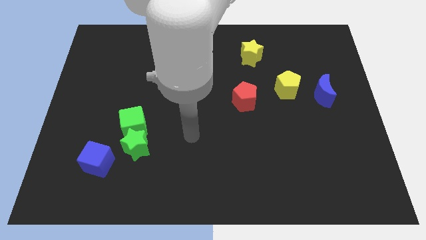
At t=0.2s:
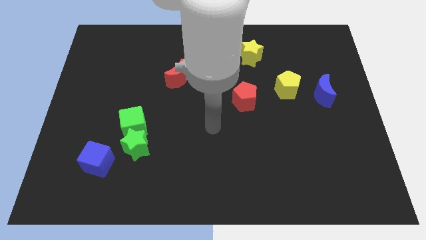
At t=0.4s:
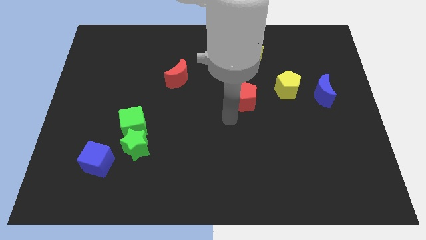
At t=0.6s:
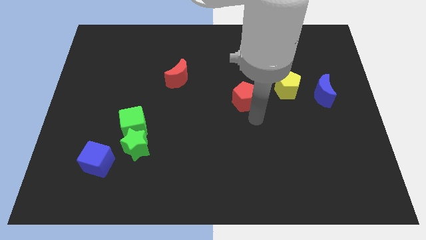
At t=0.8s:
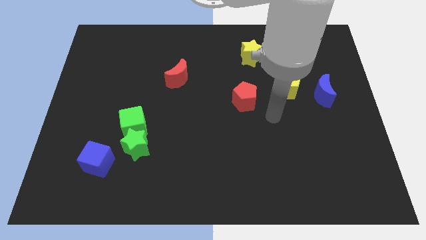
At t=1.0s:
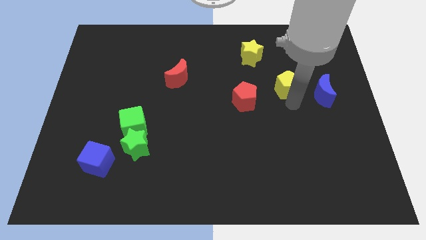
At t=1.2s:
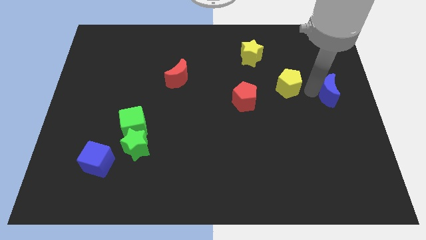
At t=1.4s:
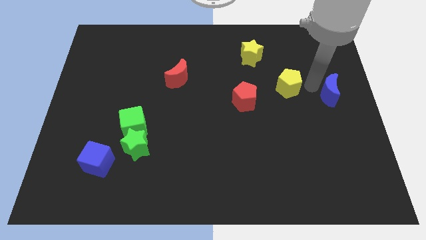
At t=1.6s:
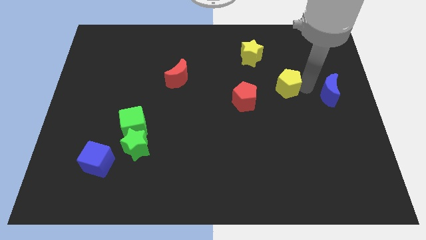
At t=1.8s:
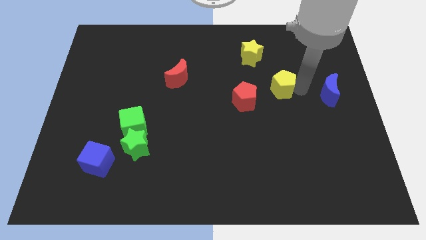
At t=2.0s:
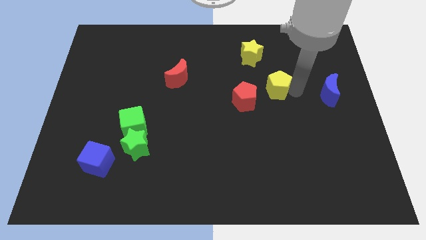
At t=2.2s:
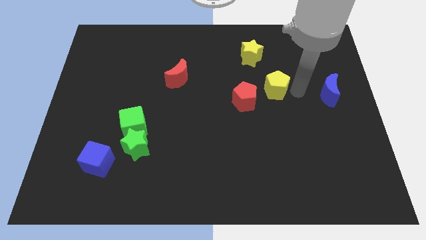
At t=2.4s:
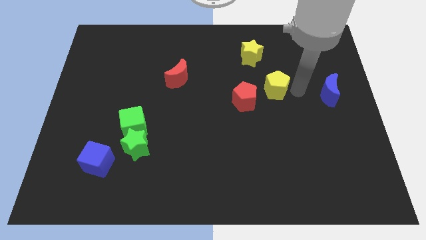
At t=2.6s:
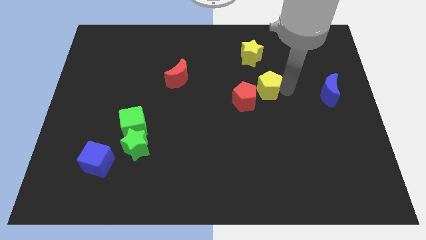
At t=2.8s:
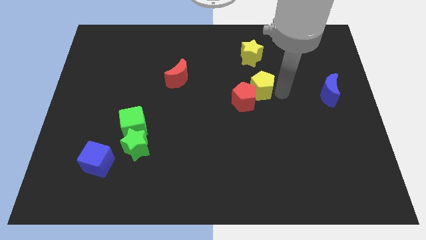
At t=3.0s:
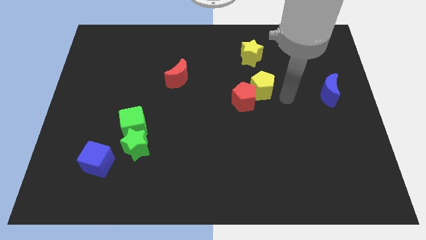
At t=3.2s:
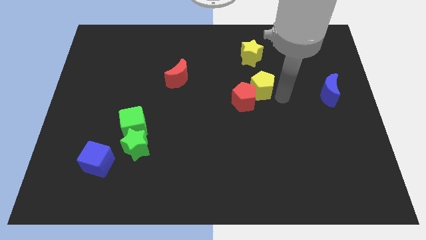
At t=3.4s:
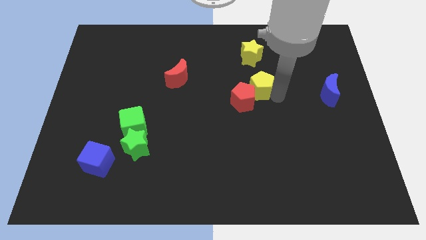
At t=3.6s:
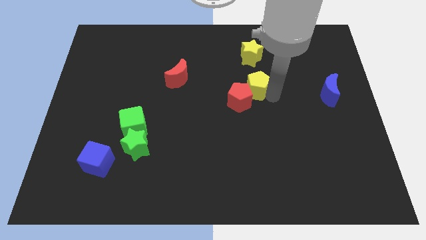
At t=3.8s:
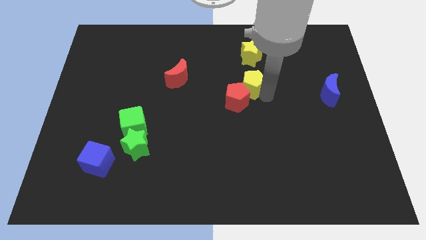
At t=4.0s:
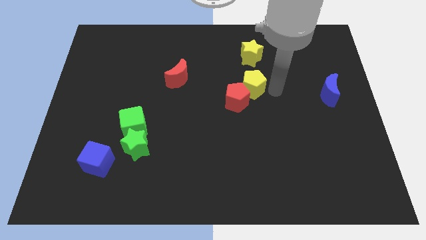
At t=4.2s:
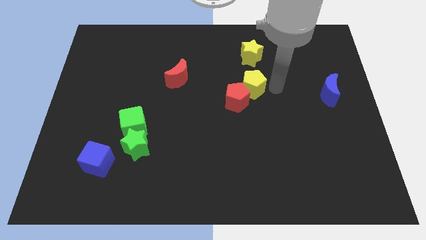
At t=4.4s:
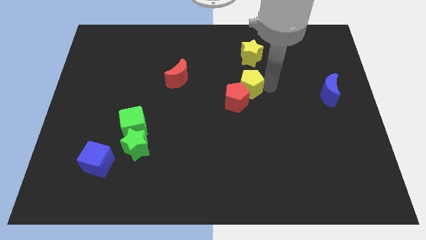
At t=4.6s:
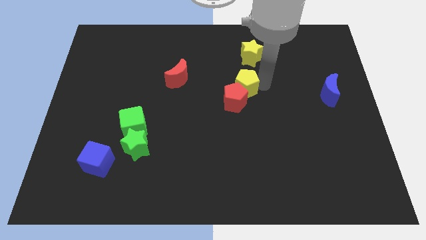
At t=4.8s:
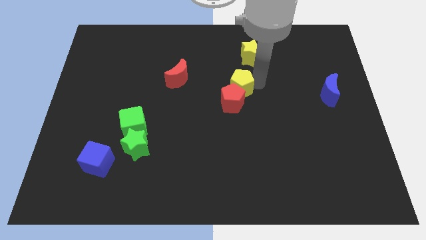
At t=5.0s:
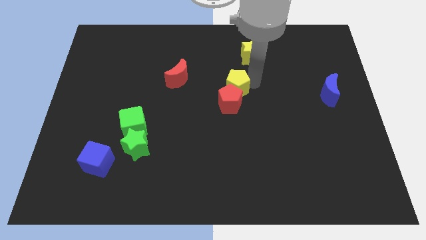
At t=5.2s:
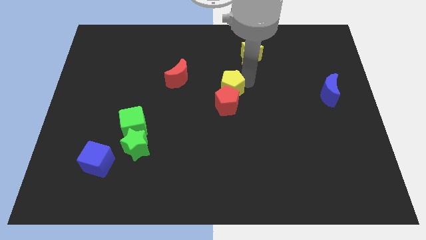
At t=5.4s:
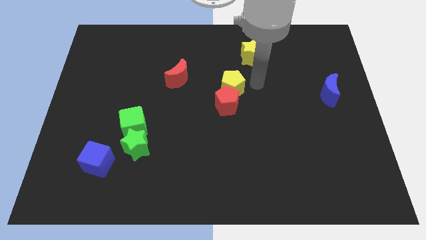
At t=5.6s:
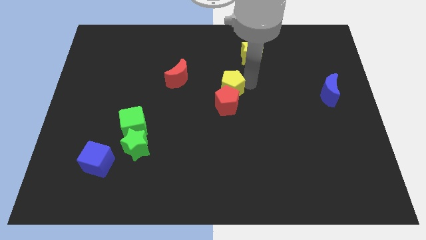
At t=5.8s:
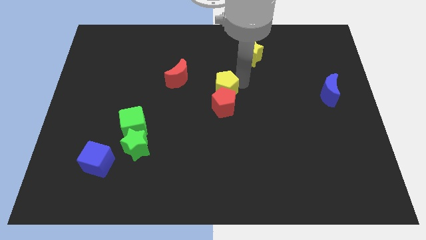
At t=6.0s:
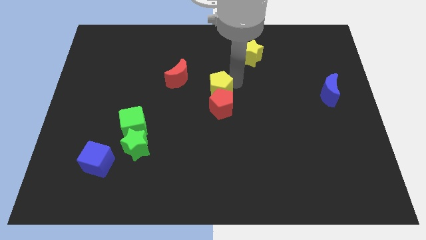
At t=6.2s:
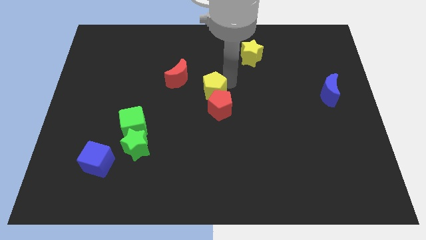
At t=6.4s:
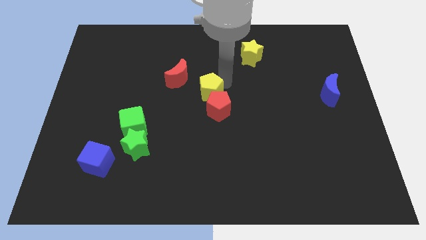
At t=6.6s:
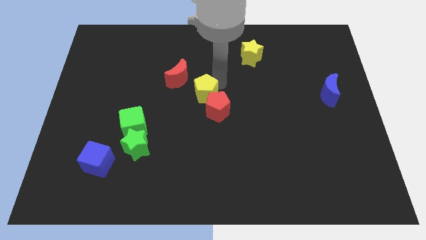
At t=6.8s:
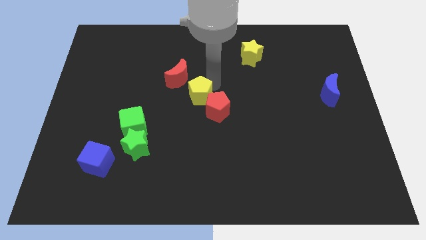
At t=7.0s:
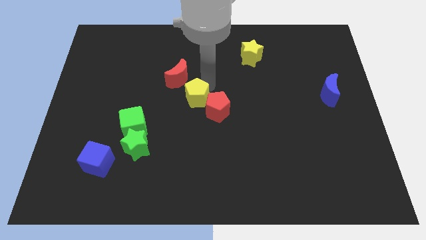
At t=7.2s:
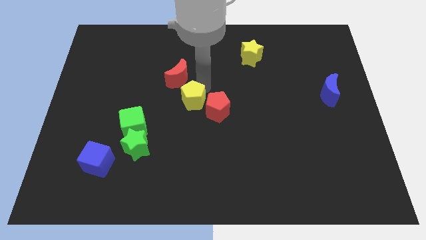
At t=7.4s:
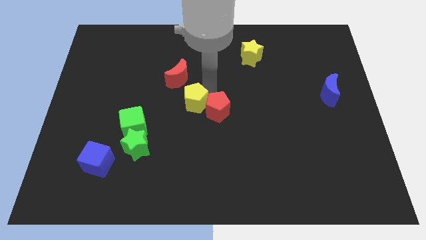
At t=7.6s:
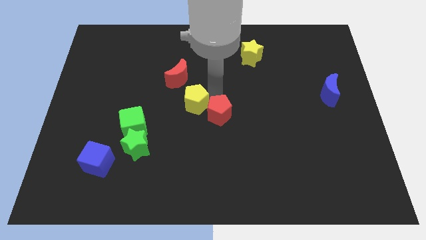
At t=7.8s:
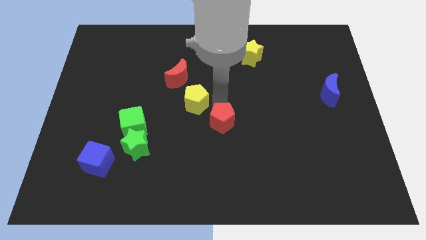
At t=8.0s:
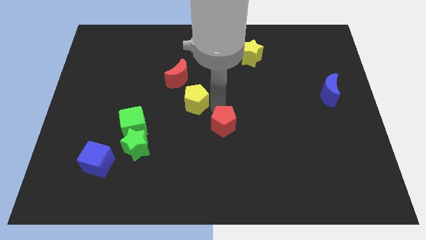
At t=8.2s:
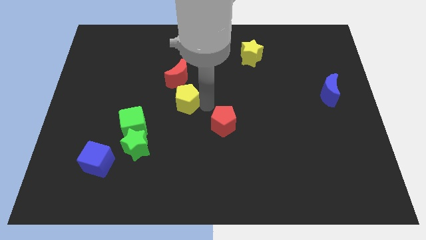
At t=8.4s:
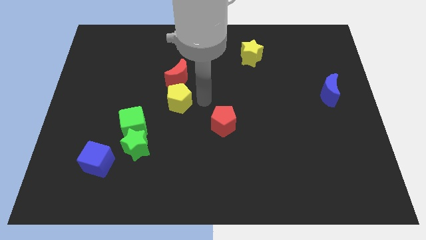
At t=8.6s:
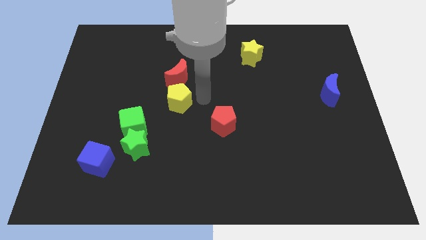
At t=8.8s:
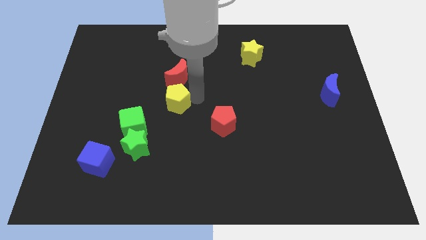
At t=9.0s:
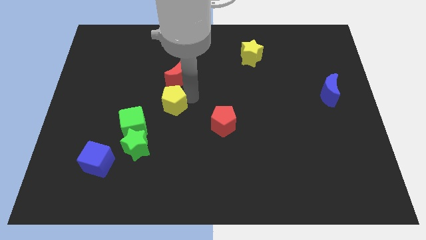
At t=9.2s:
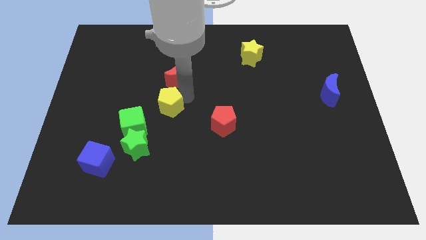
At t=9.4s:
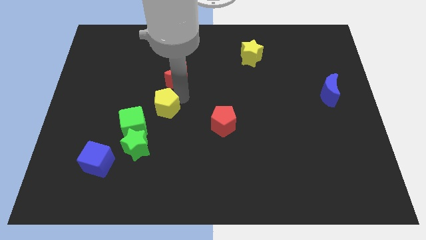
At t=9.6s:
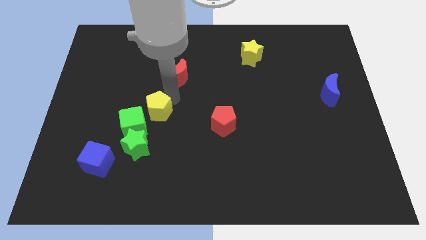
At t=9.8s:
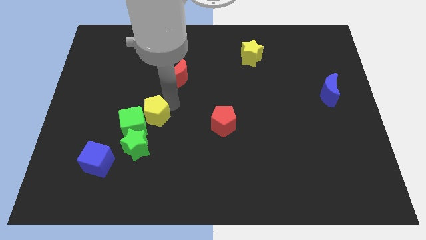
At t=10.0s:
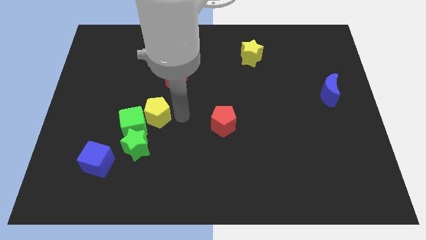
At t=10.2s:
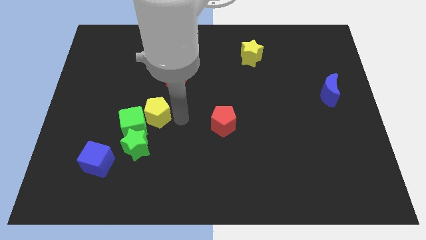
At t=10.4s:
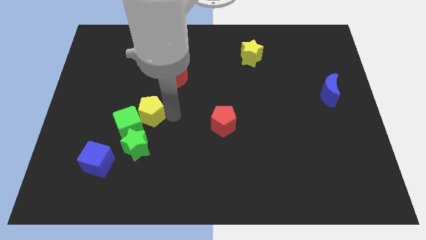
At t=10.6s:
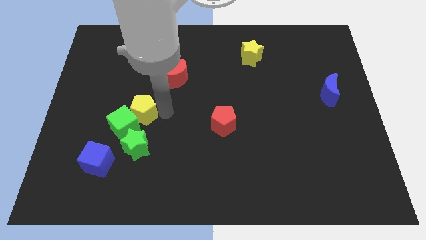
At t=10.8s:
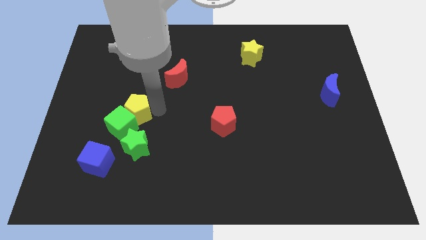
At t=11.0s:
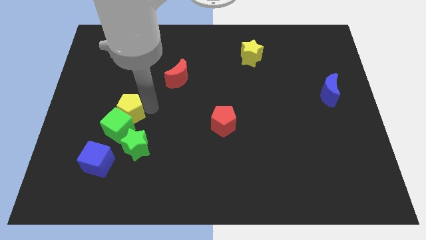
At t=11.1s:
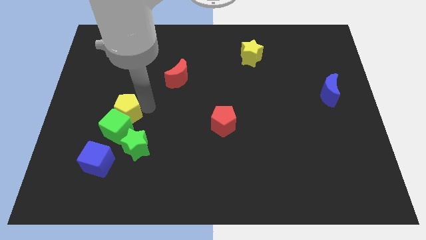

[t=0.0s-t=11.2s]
move the yellow pentagon to the top left of the green cube

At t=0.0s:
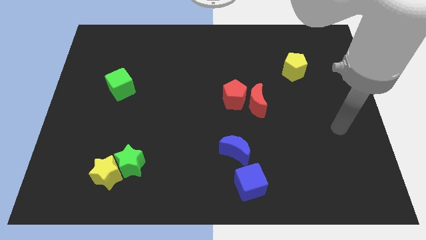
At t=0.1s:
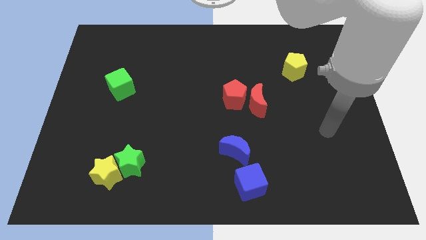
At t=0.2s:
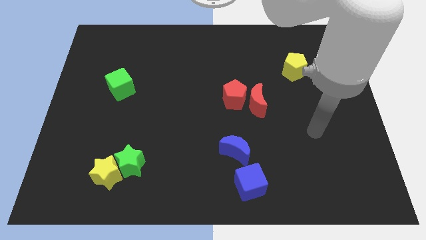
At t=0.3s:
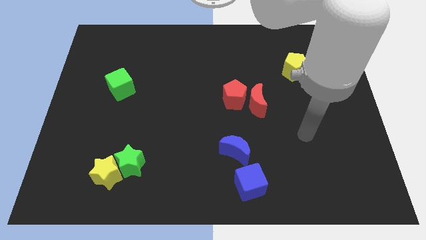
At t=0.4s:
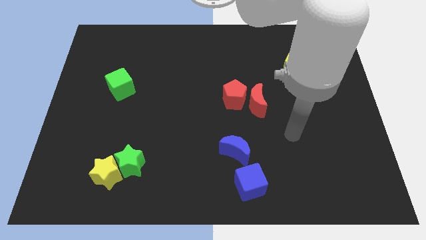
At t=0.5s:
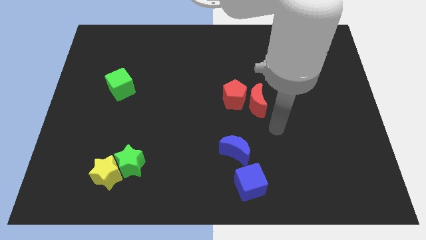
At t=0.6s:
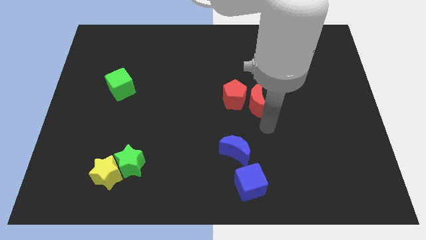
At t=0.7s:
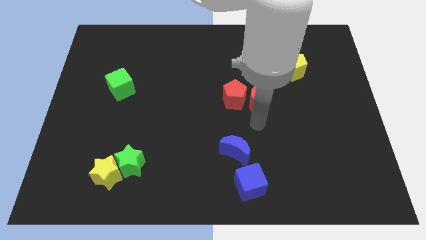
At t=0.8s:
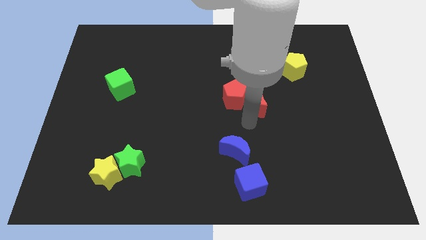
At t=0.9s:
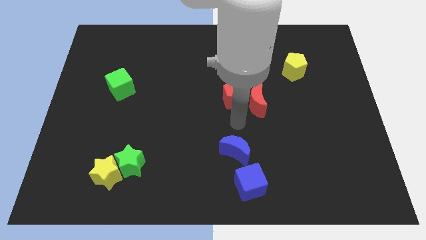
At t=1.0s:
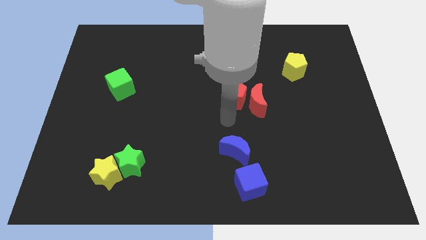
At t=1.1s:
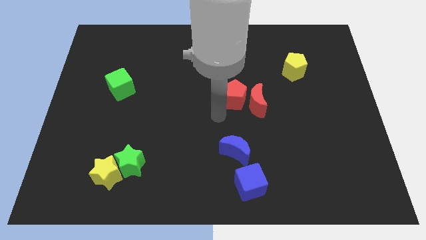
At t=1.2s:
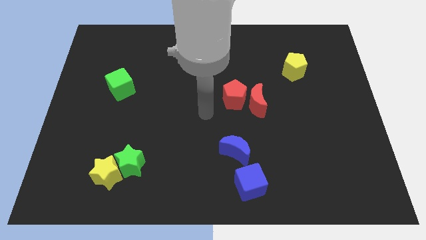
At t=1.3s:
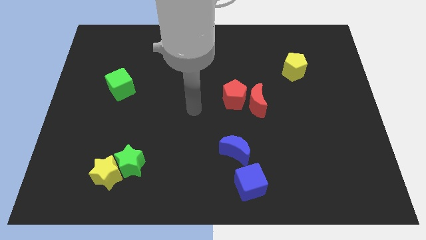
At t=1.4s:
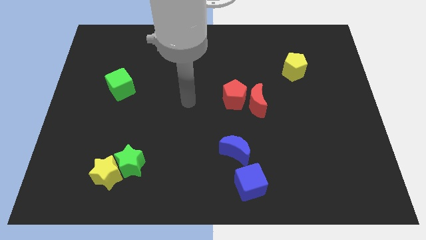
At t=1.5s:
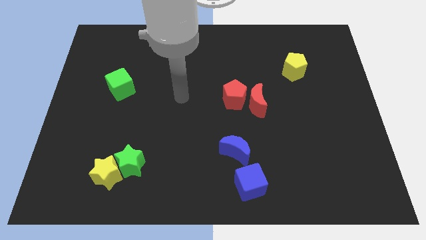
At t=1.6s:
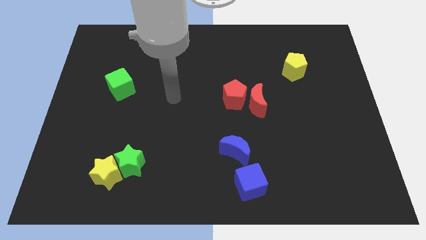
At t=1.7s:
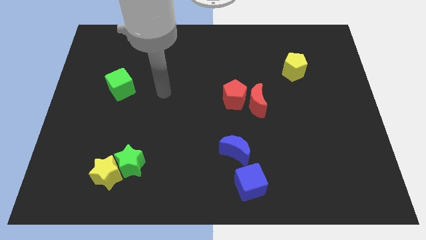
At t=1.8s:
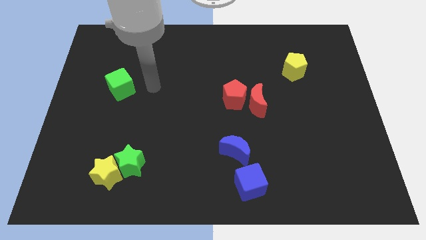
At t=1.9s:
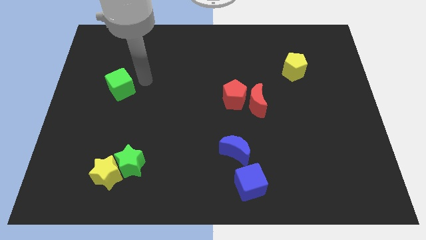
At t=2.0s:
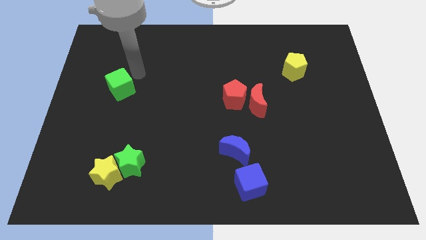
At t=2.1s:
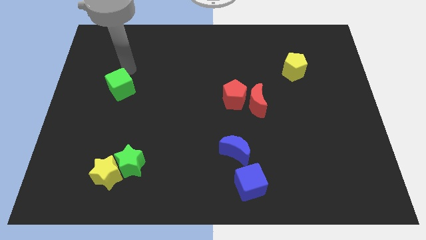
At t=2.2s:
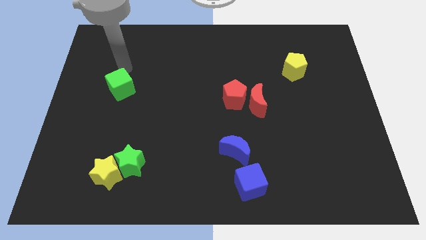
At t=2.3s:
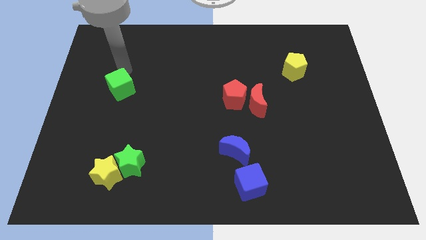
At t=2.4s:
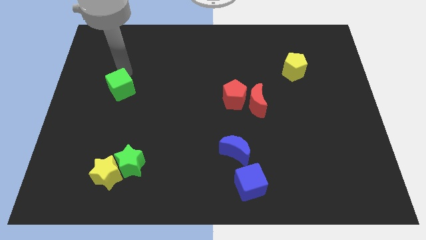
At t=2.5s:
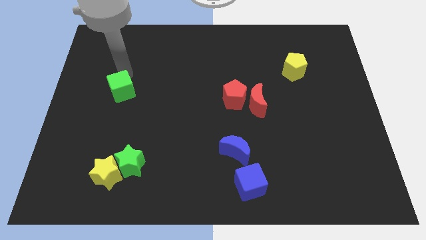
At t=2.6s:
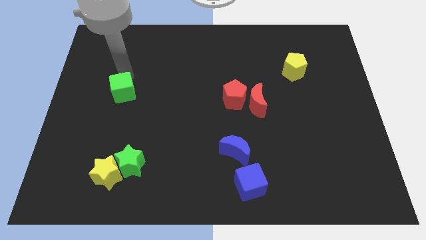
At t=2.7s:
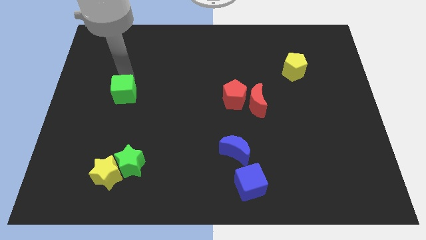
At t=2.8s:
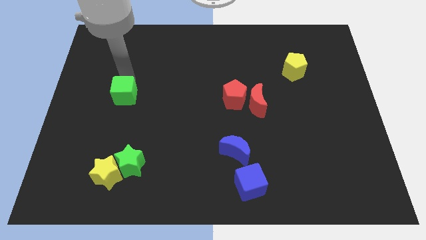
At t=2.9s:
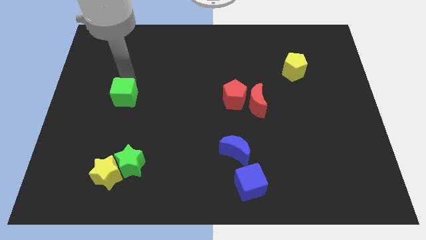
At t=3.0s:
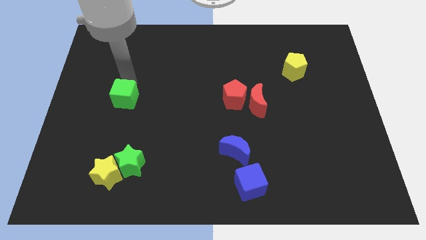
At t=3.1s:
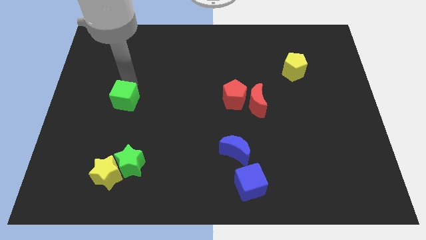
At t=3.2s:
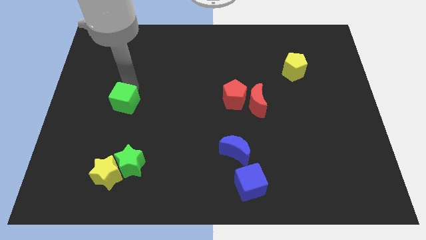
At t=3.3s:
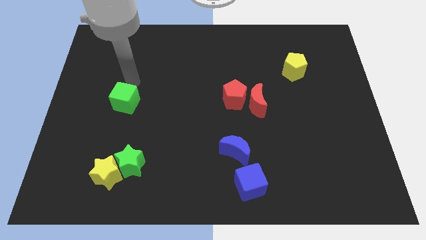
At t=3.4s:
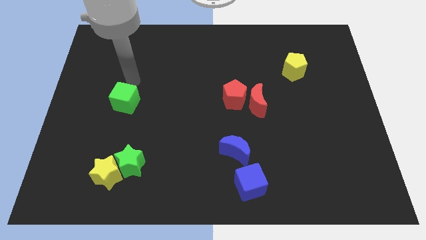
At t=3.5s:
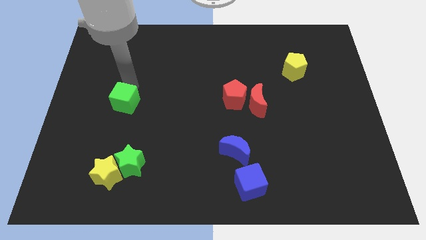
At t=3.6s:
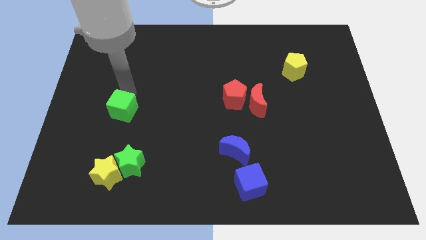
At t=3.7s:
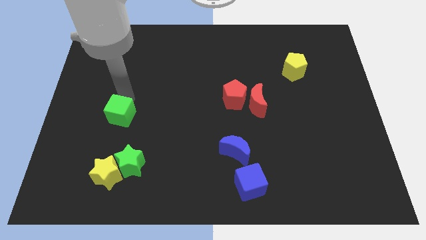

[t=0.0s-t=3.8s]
move the green cube above the yellow star
